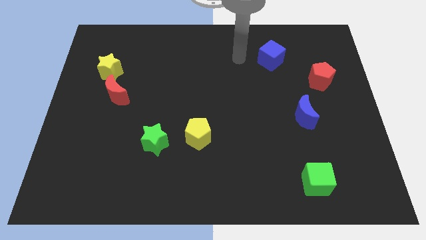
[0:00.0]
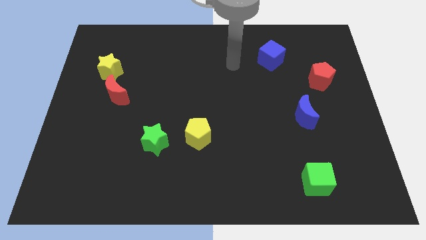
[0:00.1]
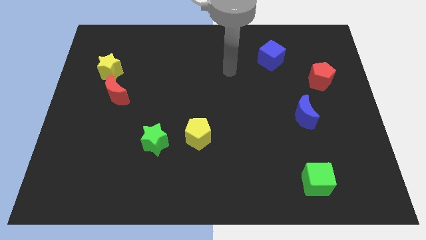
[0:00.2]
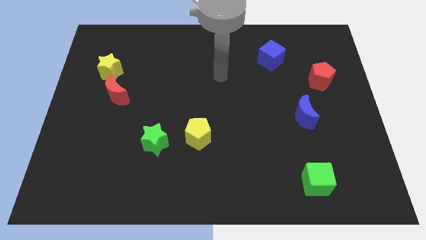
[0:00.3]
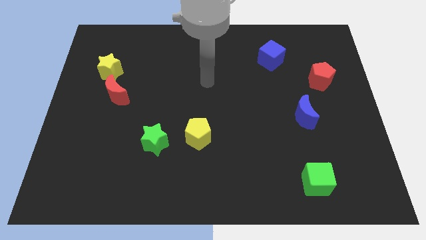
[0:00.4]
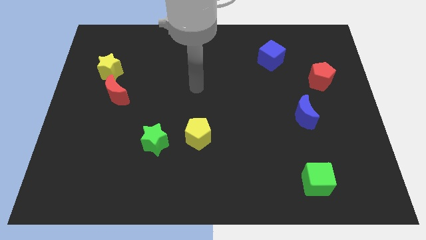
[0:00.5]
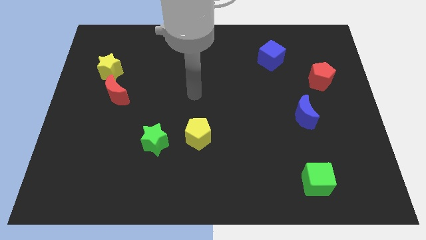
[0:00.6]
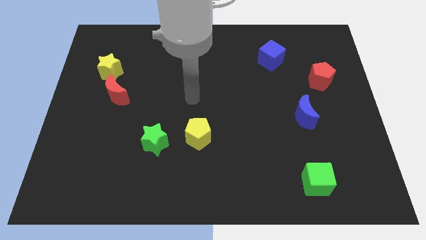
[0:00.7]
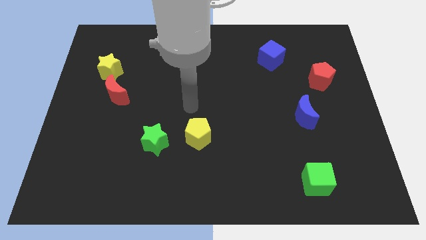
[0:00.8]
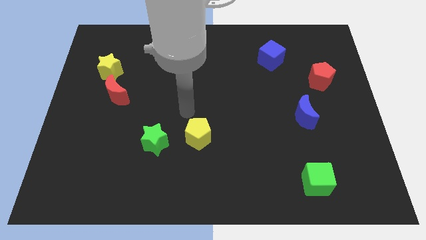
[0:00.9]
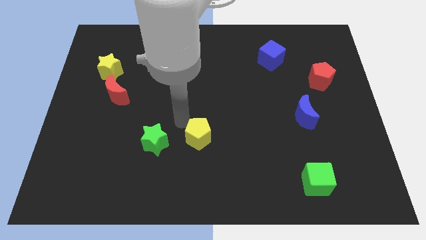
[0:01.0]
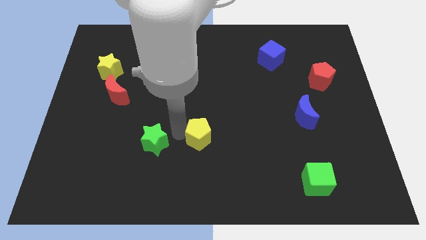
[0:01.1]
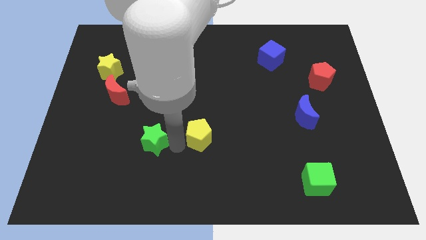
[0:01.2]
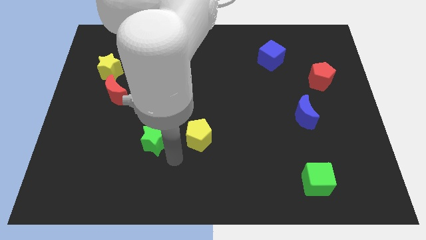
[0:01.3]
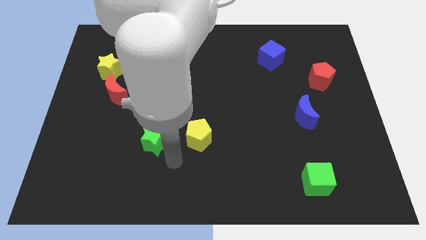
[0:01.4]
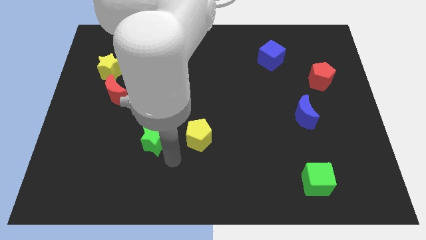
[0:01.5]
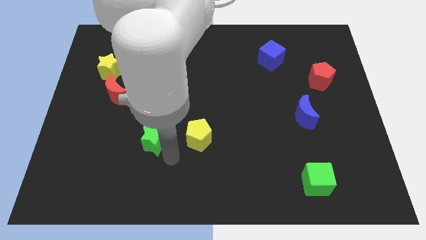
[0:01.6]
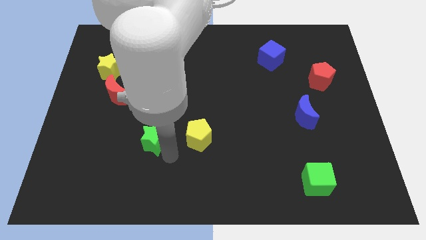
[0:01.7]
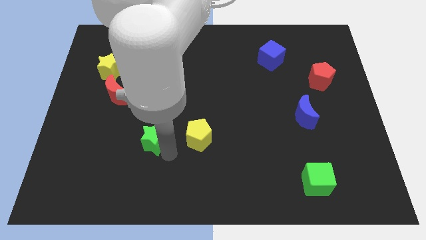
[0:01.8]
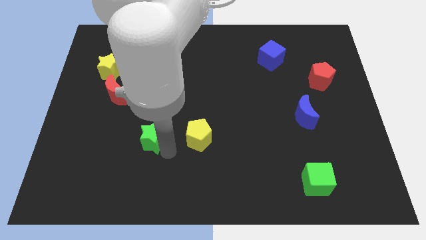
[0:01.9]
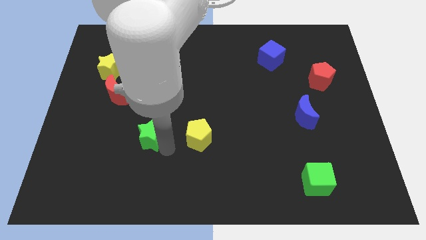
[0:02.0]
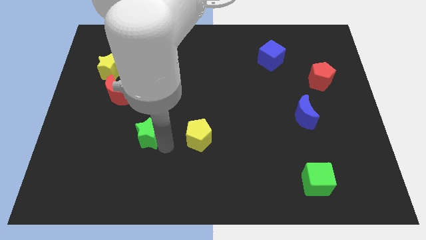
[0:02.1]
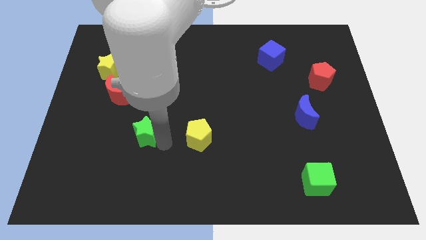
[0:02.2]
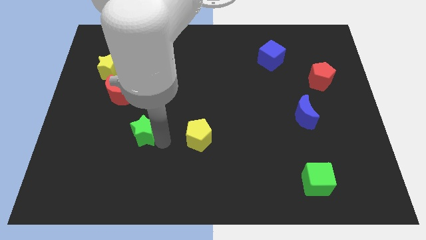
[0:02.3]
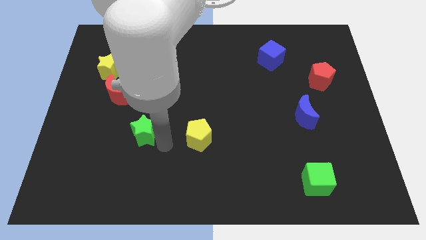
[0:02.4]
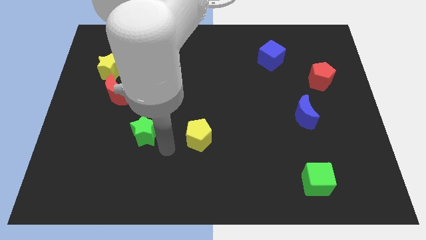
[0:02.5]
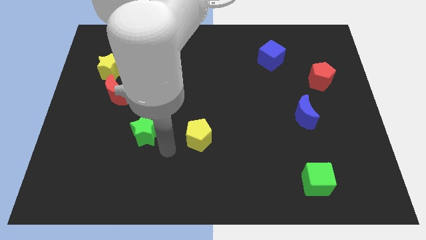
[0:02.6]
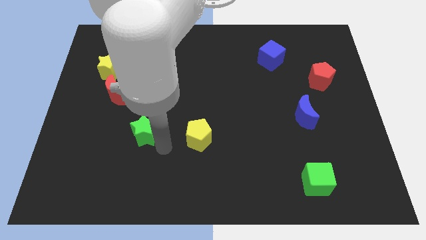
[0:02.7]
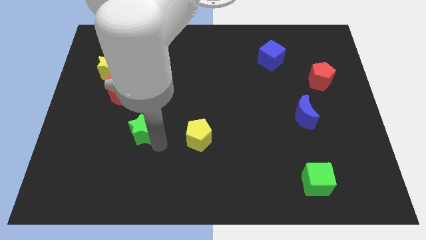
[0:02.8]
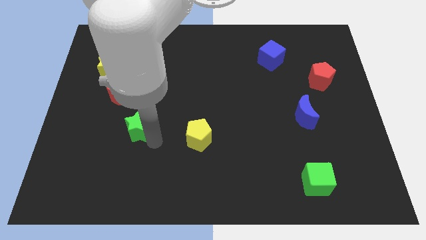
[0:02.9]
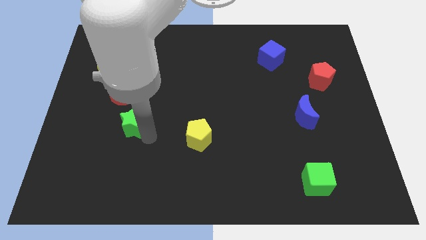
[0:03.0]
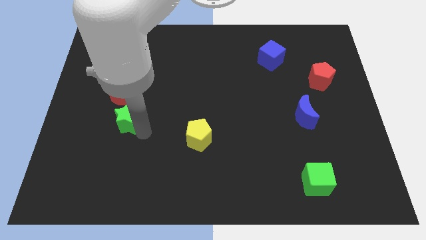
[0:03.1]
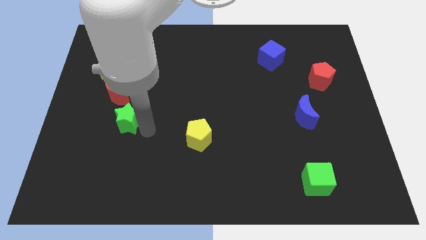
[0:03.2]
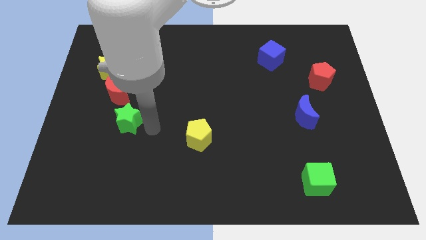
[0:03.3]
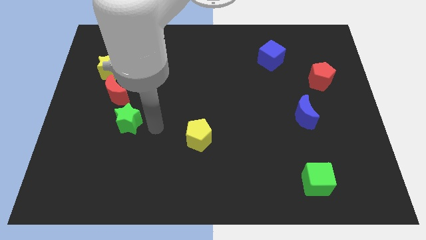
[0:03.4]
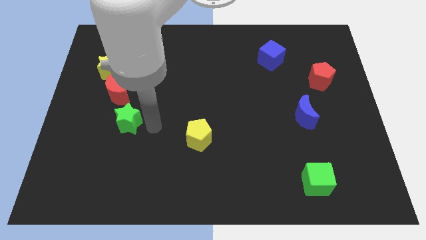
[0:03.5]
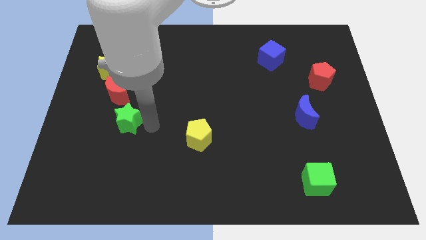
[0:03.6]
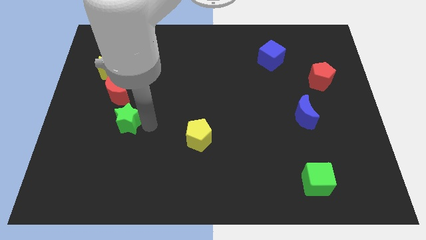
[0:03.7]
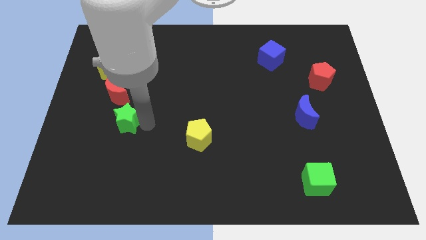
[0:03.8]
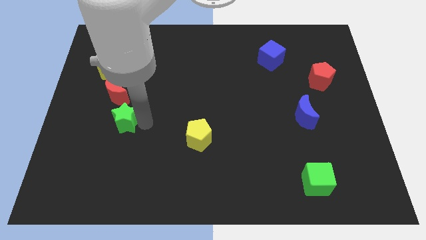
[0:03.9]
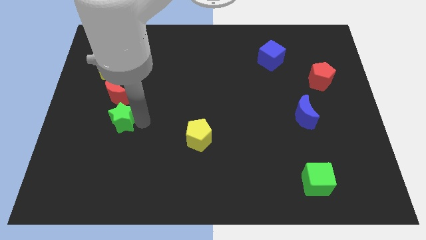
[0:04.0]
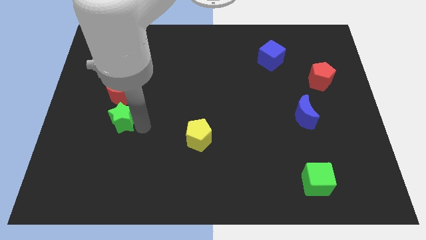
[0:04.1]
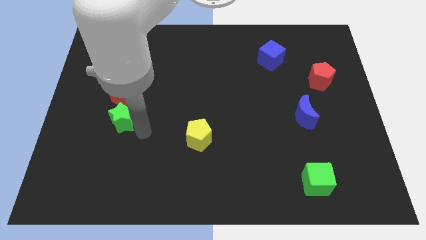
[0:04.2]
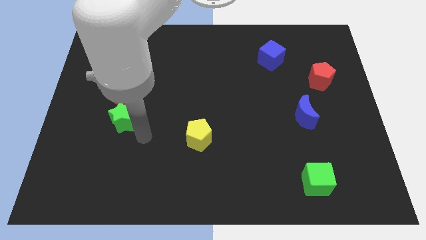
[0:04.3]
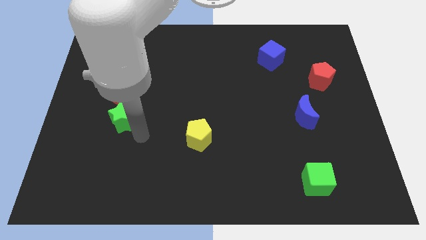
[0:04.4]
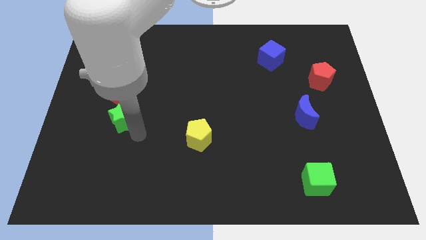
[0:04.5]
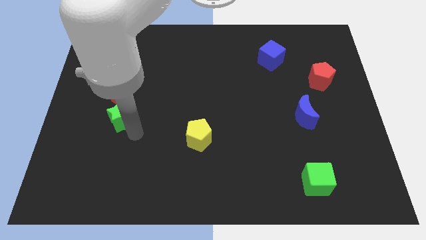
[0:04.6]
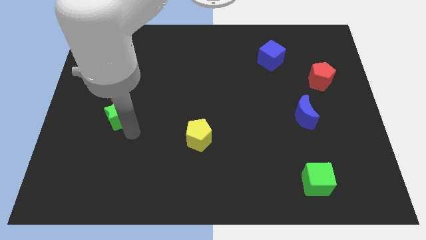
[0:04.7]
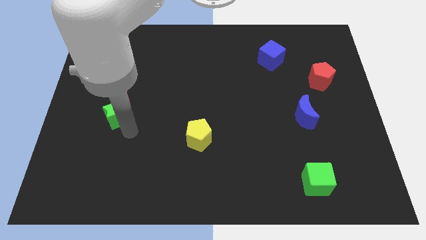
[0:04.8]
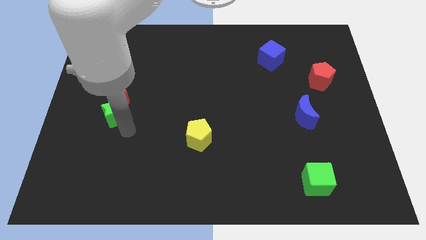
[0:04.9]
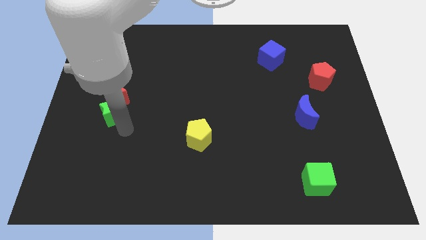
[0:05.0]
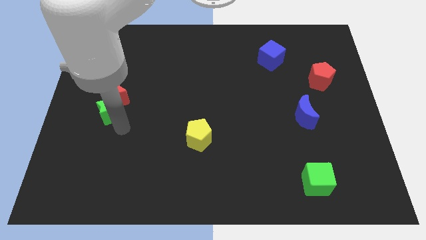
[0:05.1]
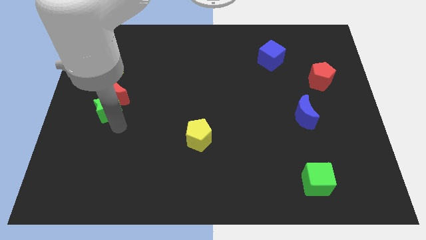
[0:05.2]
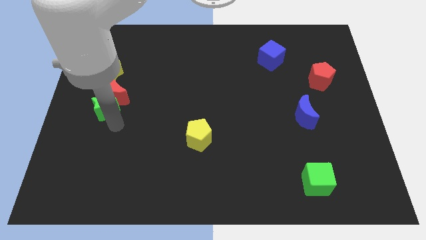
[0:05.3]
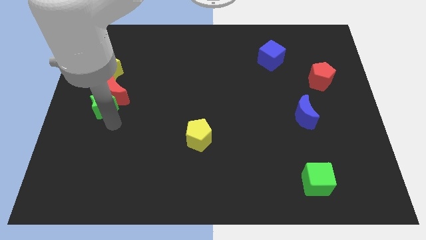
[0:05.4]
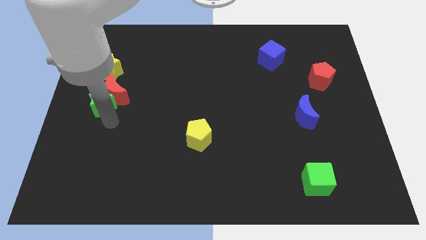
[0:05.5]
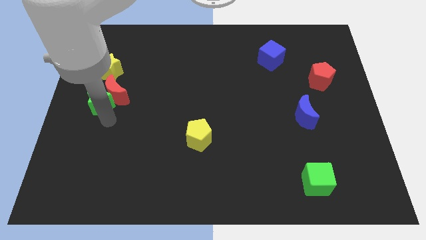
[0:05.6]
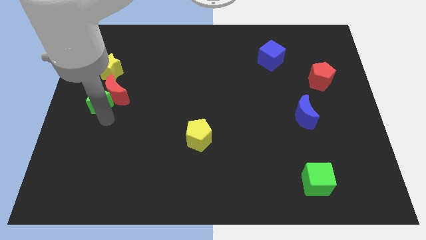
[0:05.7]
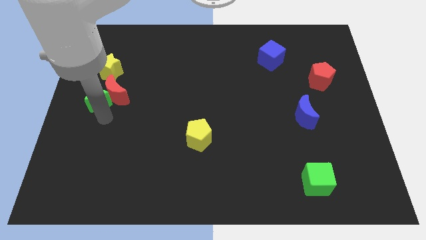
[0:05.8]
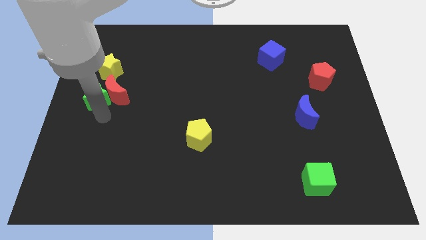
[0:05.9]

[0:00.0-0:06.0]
push the green star to the top left of the red moon

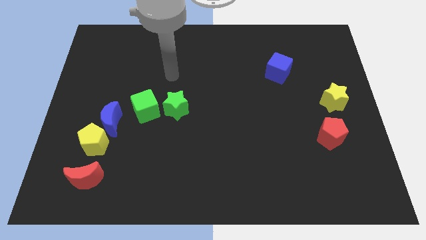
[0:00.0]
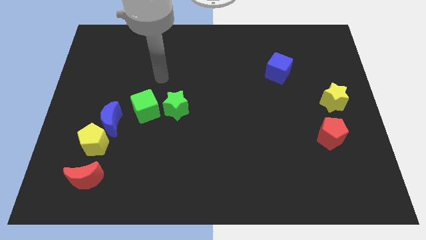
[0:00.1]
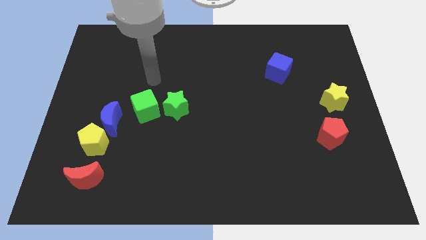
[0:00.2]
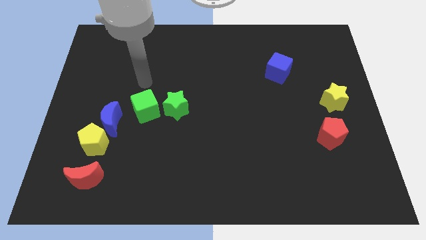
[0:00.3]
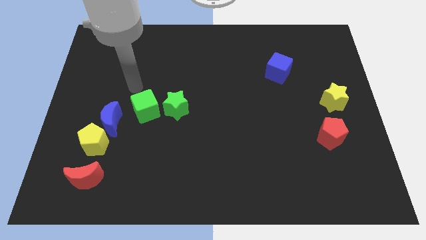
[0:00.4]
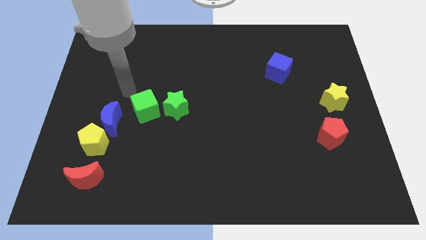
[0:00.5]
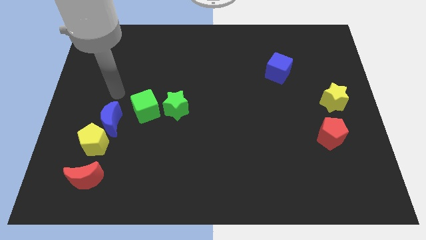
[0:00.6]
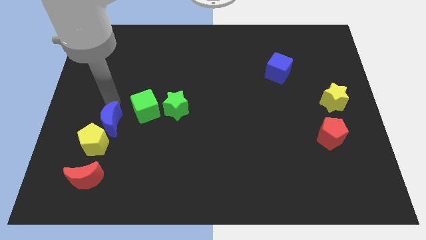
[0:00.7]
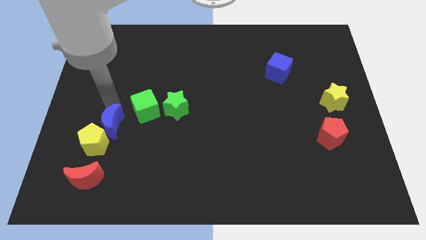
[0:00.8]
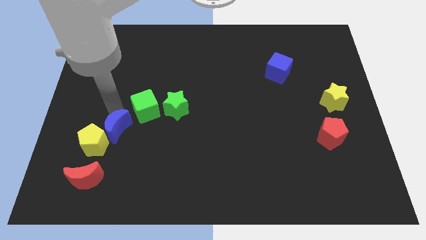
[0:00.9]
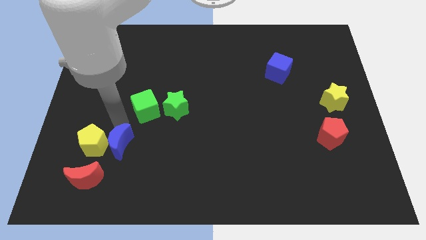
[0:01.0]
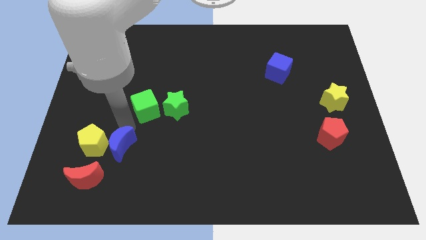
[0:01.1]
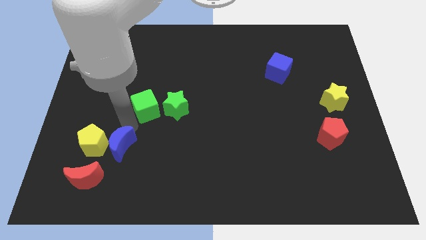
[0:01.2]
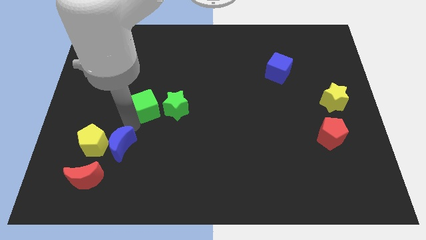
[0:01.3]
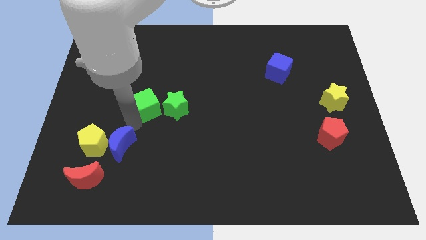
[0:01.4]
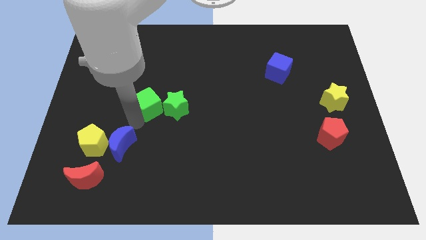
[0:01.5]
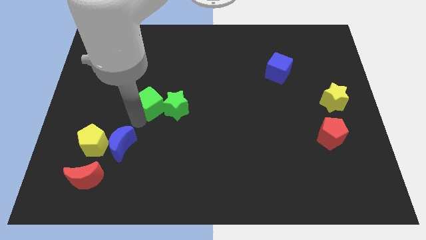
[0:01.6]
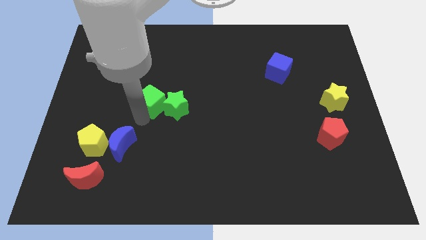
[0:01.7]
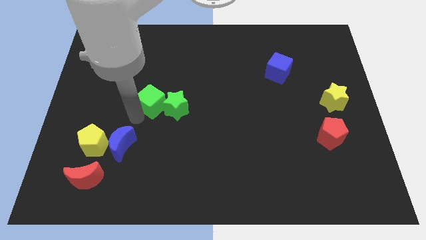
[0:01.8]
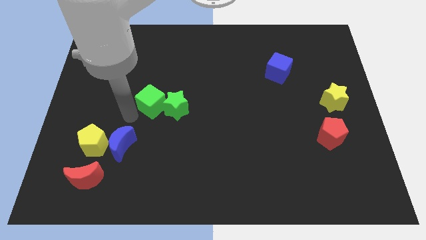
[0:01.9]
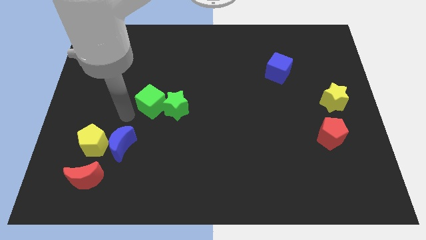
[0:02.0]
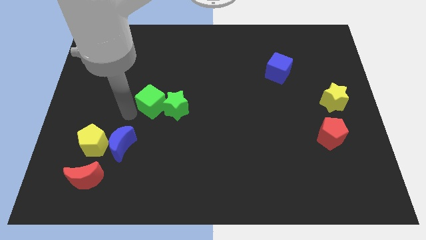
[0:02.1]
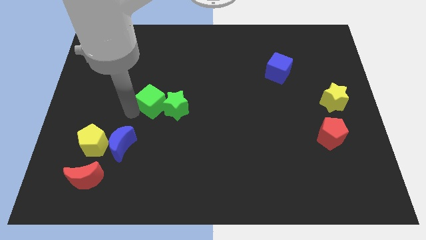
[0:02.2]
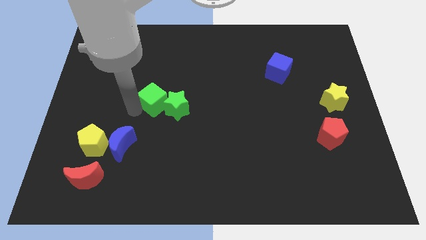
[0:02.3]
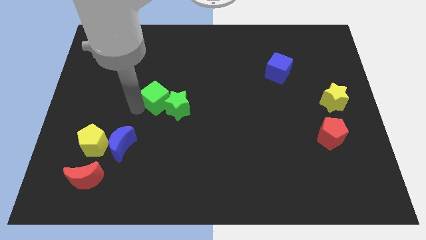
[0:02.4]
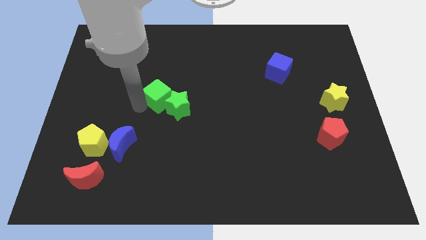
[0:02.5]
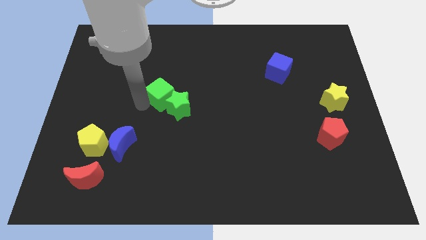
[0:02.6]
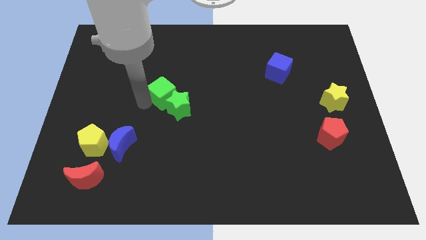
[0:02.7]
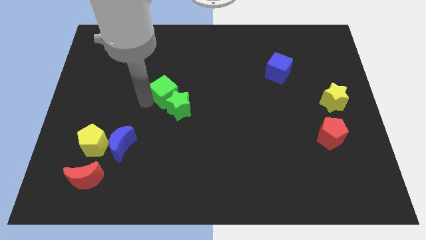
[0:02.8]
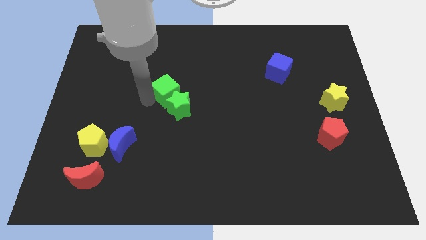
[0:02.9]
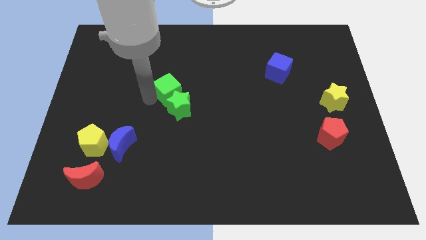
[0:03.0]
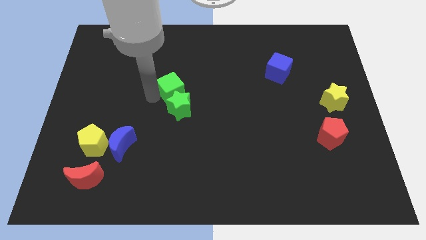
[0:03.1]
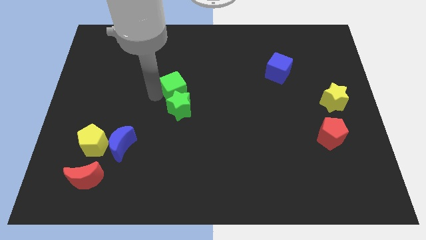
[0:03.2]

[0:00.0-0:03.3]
slide the green cube to the top right side of the green star
